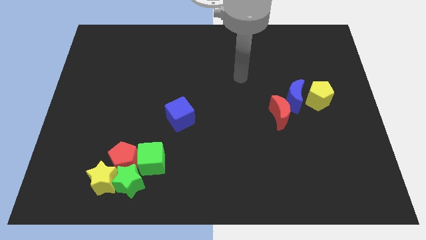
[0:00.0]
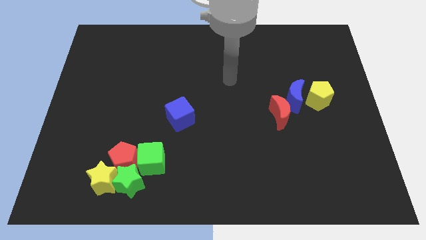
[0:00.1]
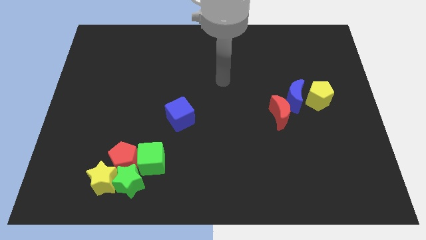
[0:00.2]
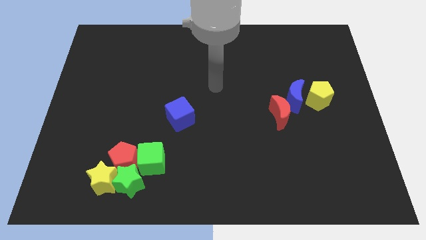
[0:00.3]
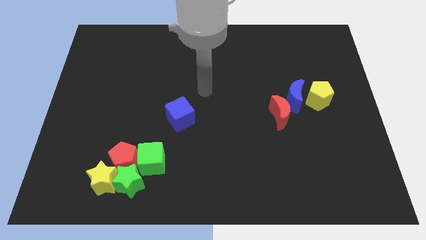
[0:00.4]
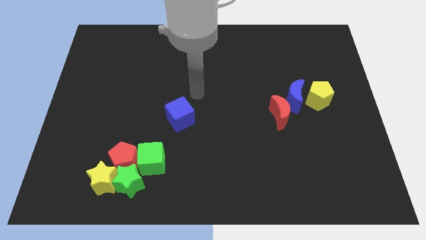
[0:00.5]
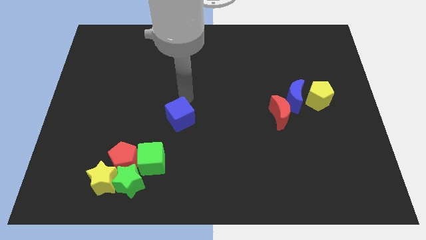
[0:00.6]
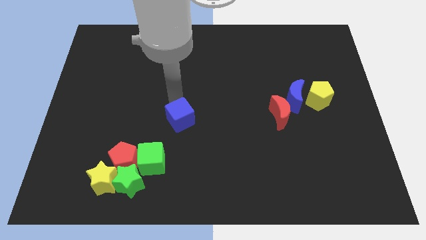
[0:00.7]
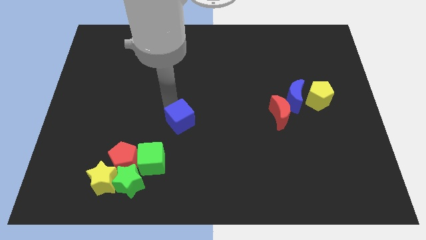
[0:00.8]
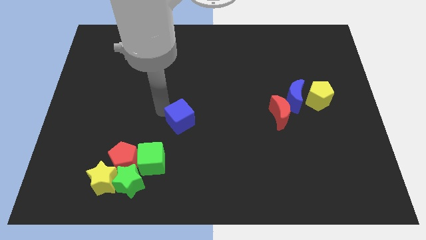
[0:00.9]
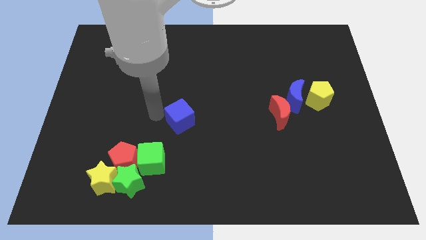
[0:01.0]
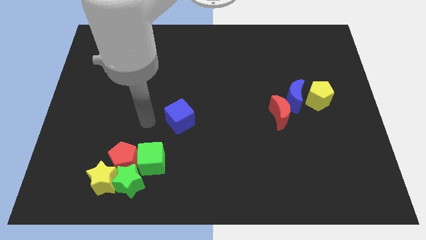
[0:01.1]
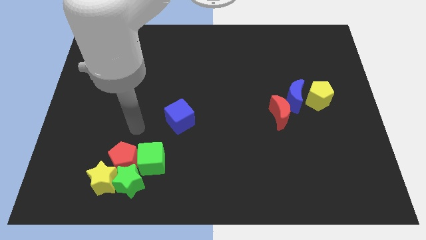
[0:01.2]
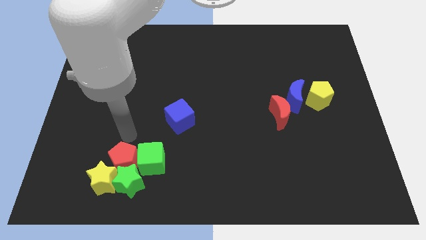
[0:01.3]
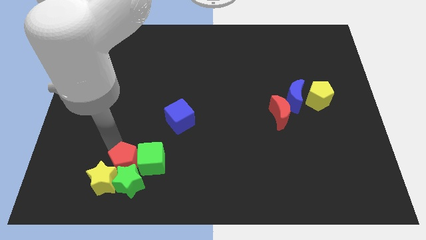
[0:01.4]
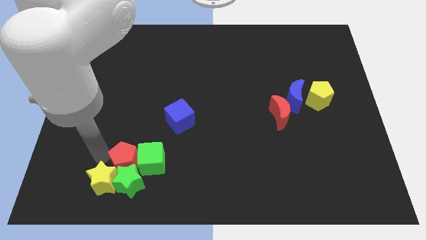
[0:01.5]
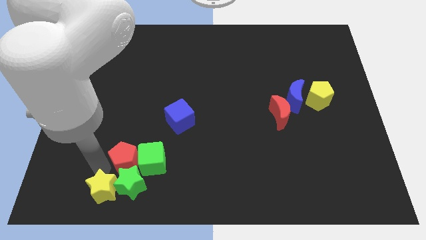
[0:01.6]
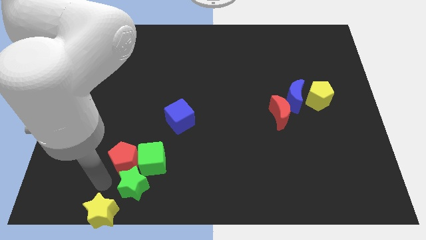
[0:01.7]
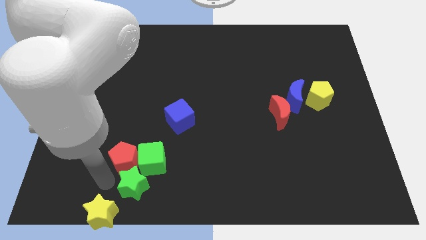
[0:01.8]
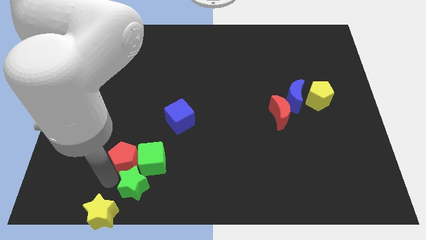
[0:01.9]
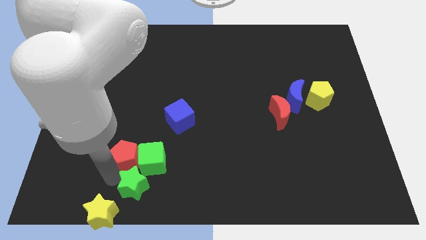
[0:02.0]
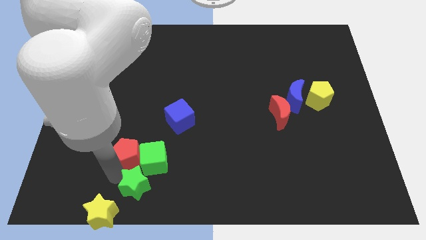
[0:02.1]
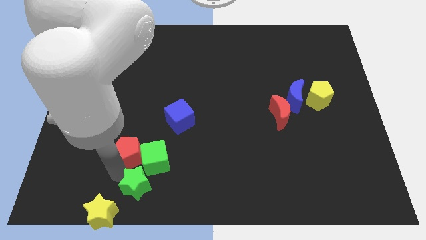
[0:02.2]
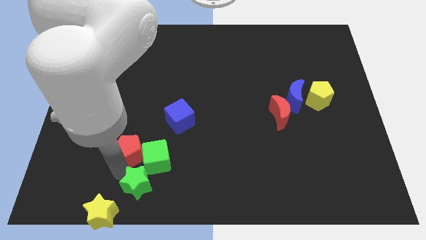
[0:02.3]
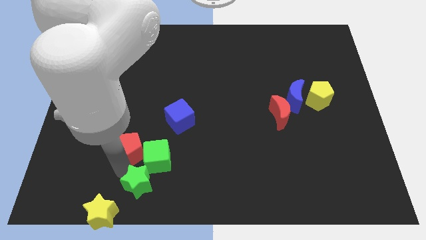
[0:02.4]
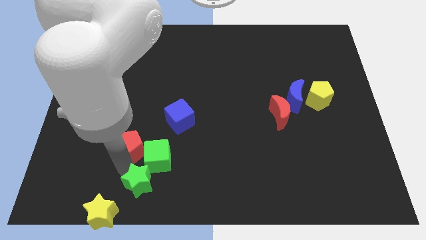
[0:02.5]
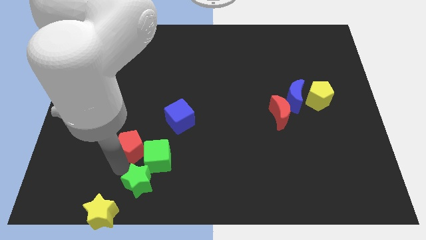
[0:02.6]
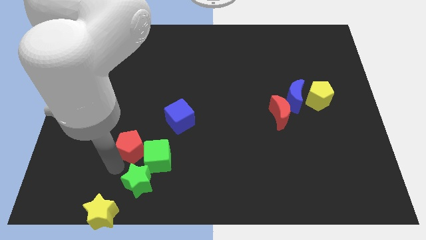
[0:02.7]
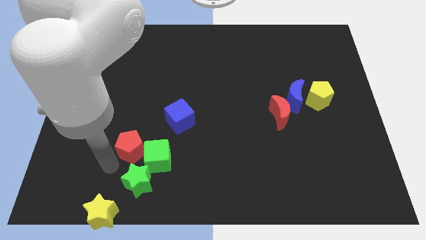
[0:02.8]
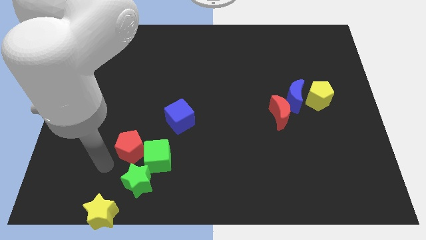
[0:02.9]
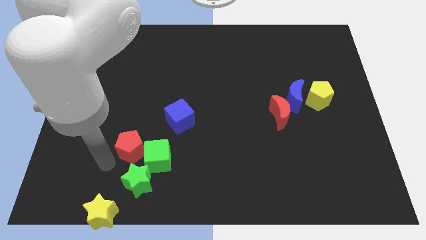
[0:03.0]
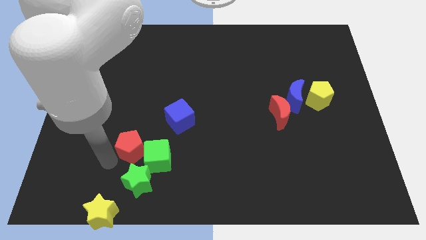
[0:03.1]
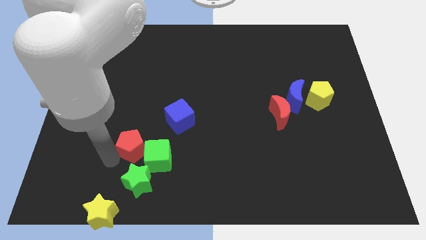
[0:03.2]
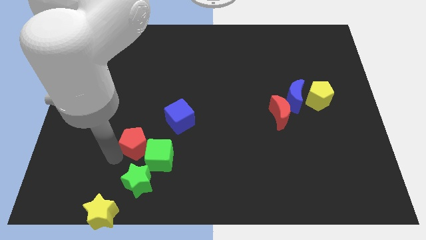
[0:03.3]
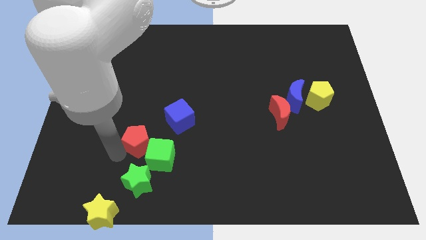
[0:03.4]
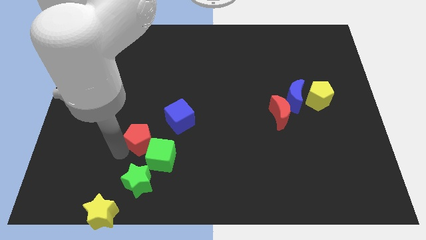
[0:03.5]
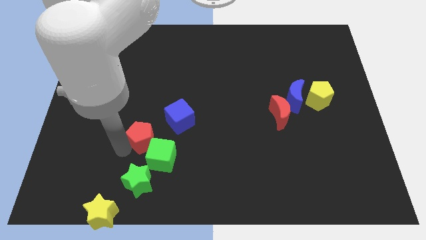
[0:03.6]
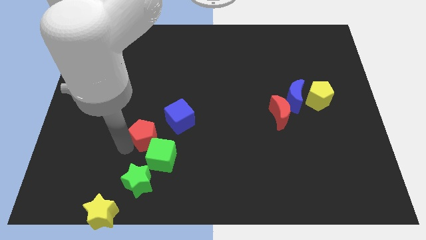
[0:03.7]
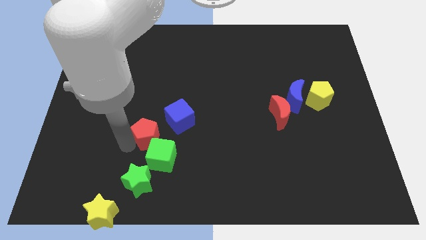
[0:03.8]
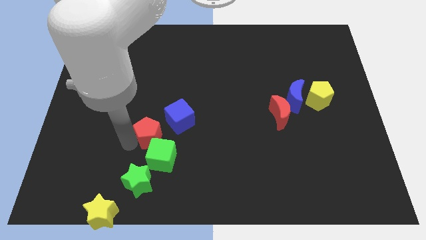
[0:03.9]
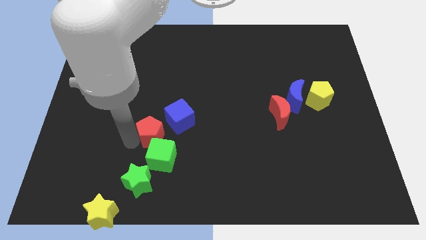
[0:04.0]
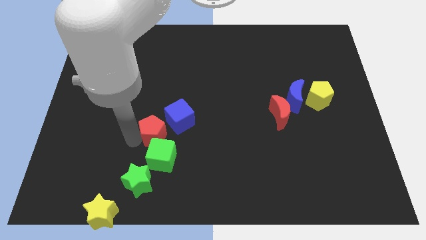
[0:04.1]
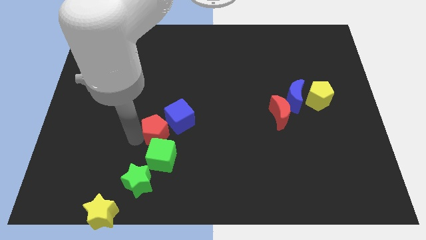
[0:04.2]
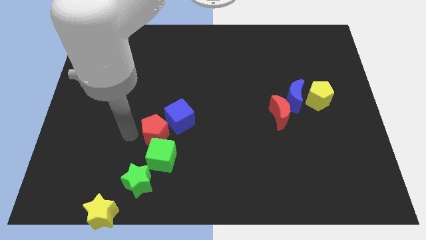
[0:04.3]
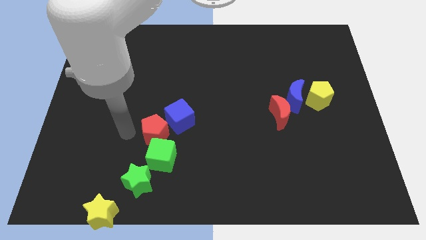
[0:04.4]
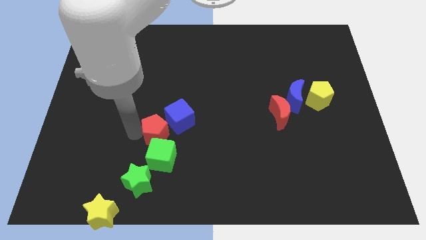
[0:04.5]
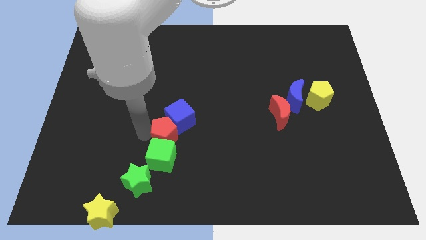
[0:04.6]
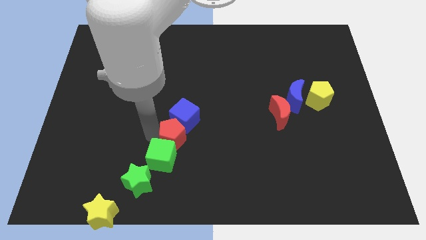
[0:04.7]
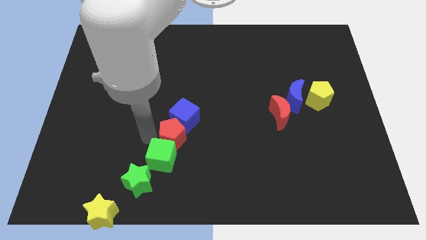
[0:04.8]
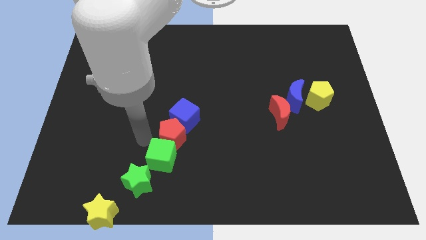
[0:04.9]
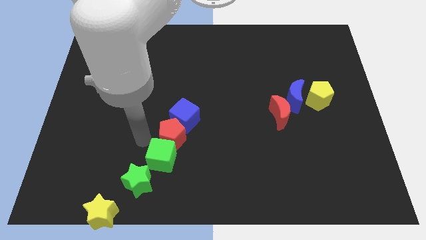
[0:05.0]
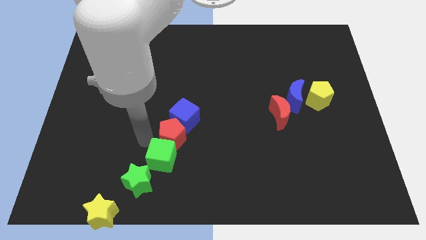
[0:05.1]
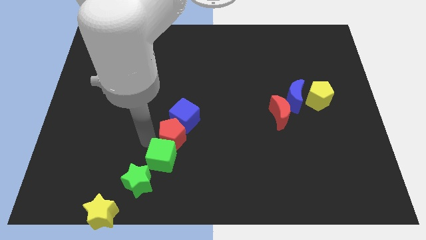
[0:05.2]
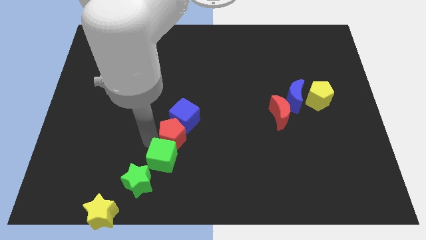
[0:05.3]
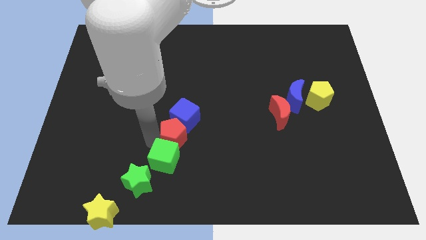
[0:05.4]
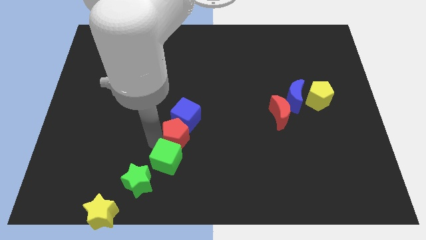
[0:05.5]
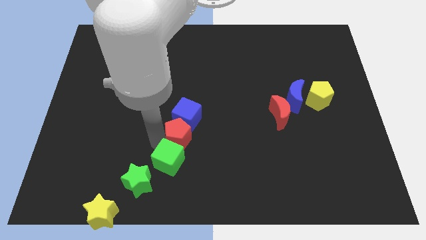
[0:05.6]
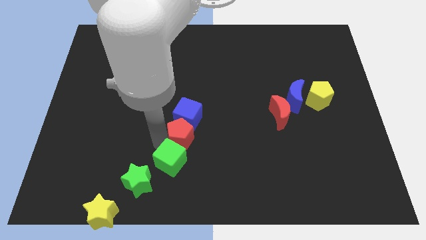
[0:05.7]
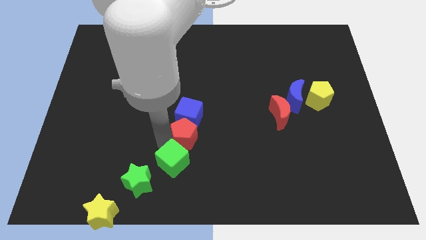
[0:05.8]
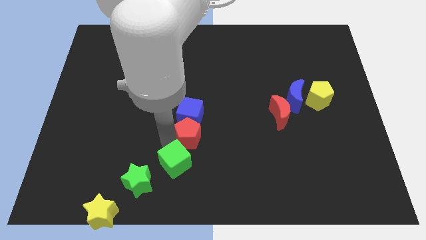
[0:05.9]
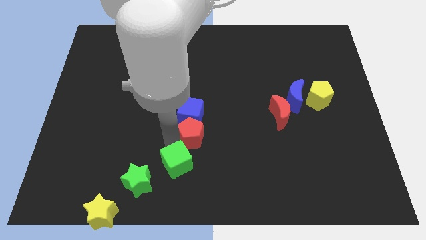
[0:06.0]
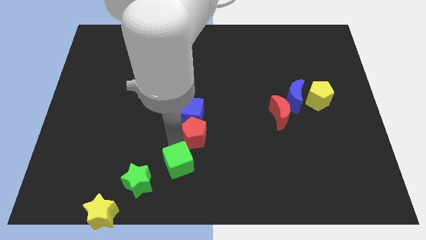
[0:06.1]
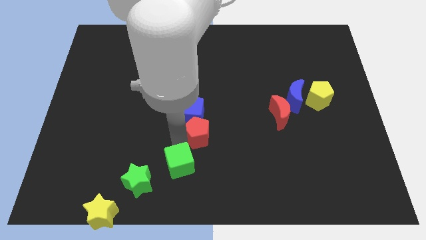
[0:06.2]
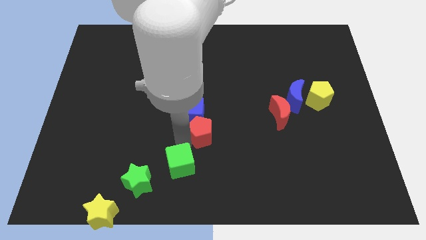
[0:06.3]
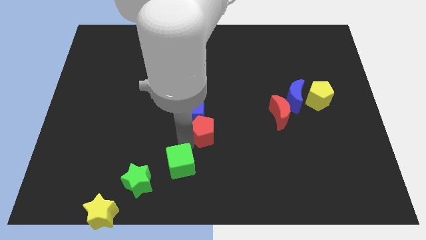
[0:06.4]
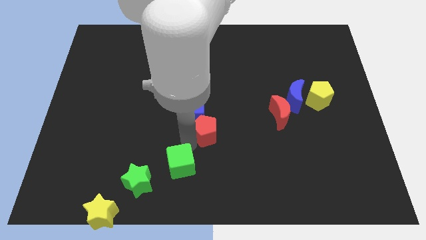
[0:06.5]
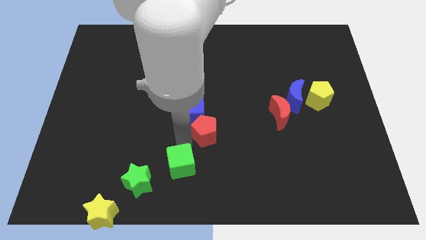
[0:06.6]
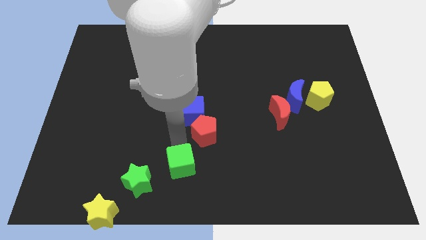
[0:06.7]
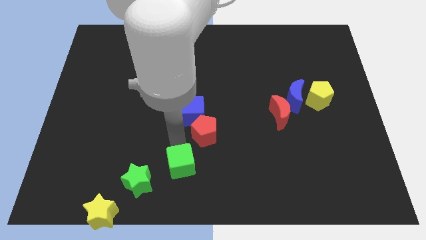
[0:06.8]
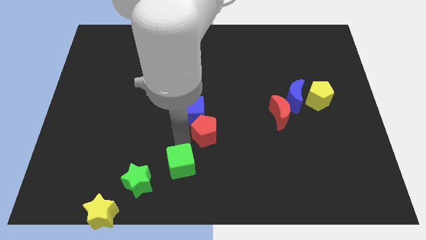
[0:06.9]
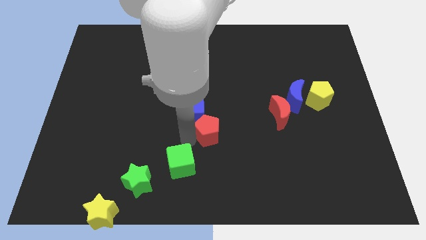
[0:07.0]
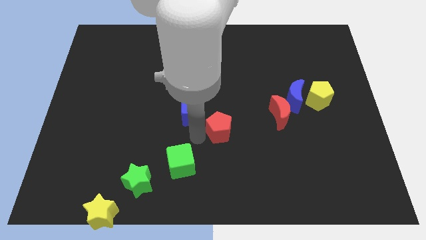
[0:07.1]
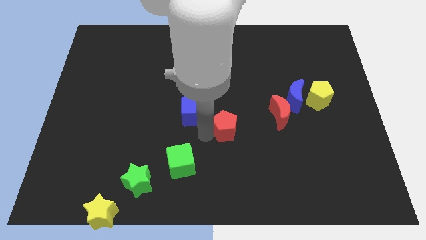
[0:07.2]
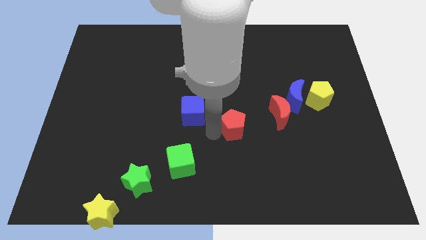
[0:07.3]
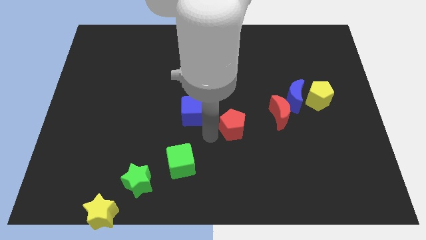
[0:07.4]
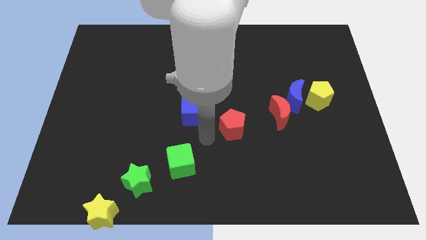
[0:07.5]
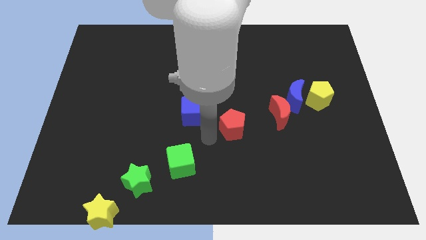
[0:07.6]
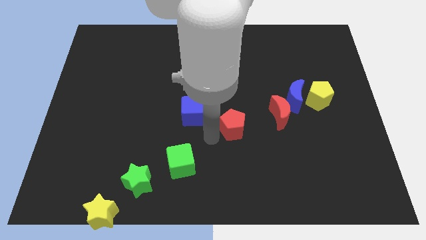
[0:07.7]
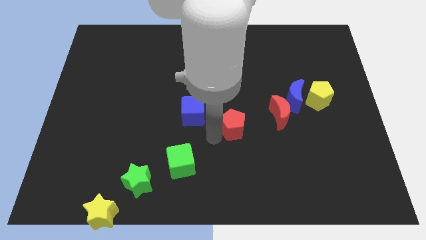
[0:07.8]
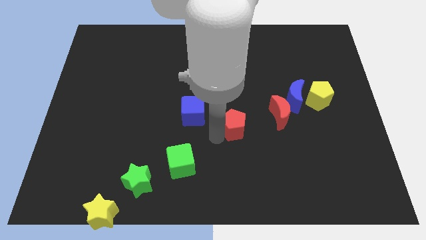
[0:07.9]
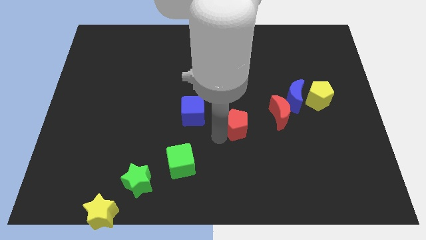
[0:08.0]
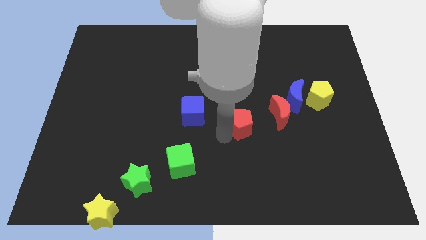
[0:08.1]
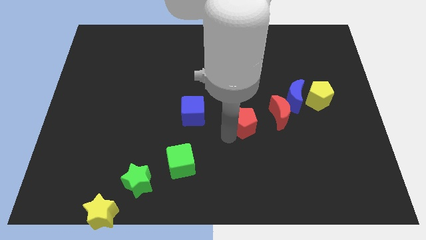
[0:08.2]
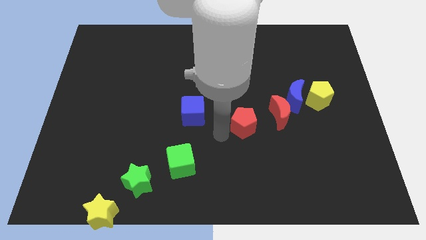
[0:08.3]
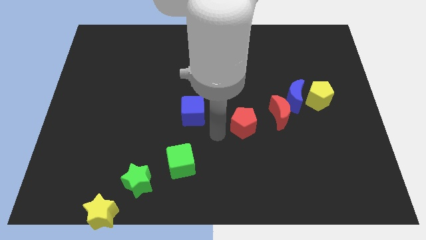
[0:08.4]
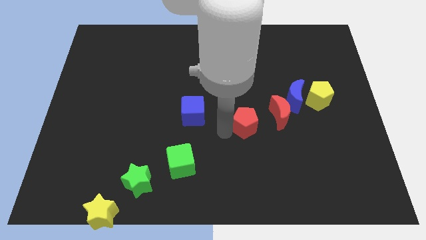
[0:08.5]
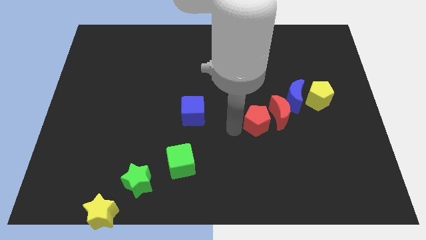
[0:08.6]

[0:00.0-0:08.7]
put the red pentagon towards the red moon
